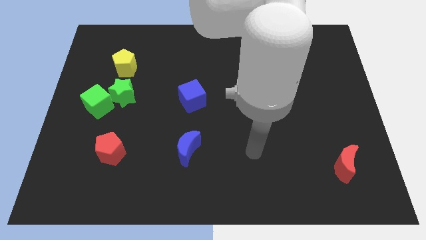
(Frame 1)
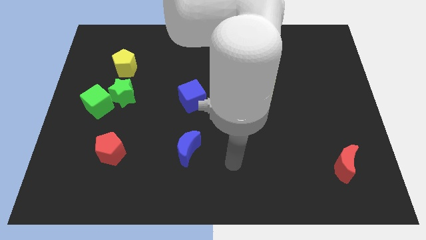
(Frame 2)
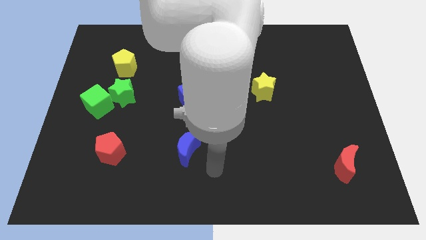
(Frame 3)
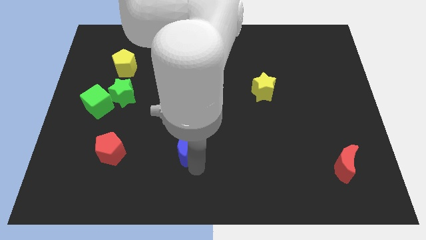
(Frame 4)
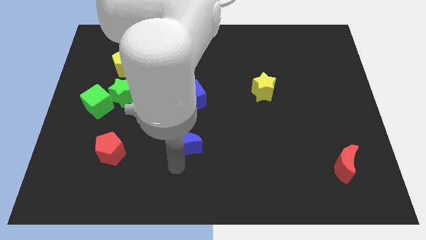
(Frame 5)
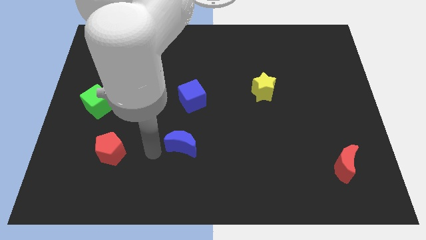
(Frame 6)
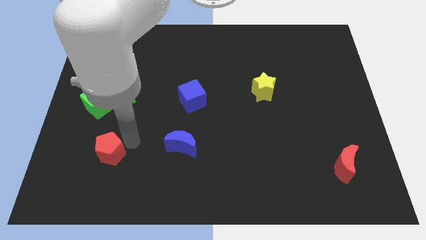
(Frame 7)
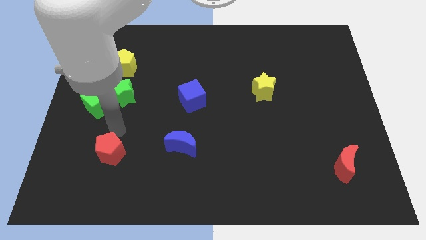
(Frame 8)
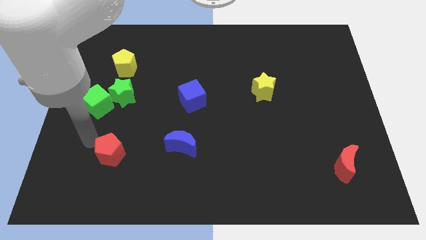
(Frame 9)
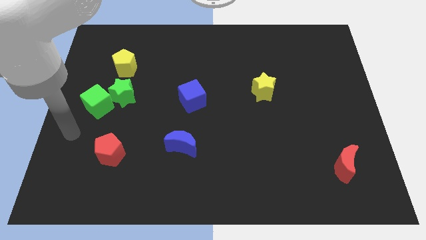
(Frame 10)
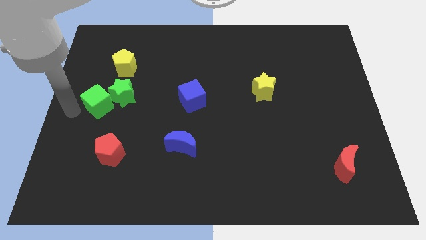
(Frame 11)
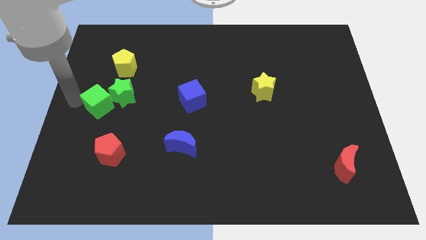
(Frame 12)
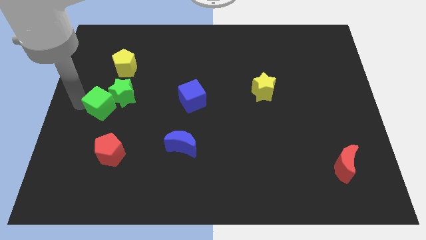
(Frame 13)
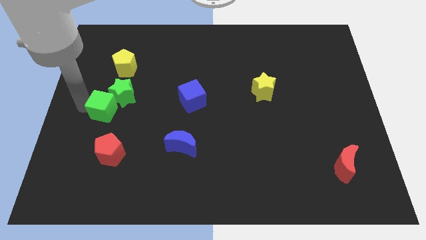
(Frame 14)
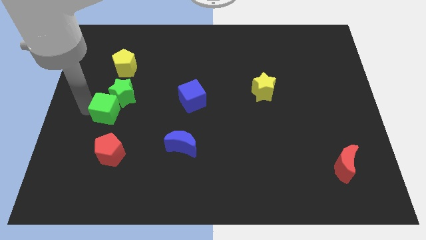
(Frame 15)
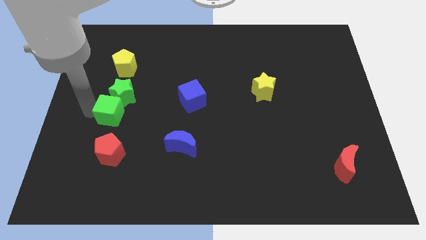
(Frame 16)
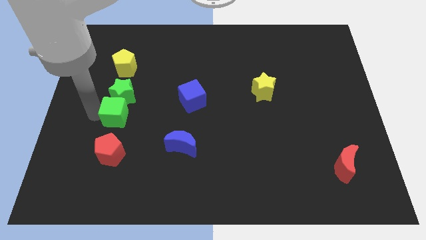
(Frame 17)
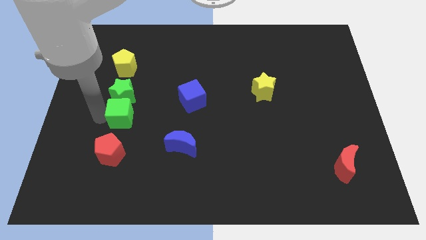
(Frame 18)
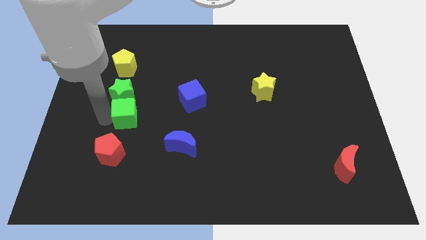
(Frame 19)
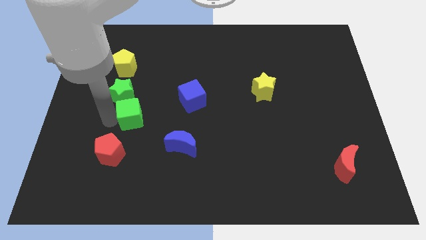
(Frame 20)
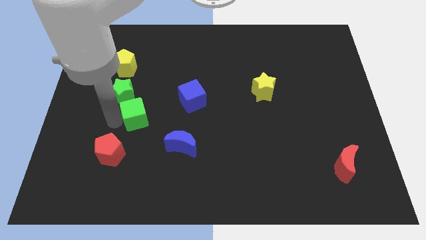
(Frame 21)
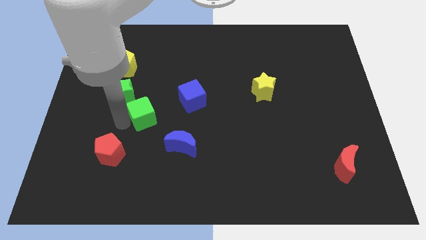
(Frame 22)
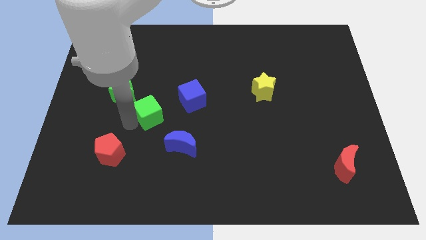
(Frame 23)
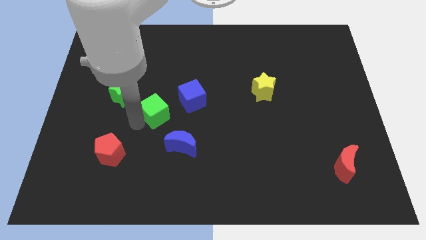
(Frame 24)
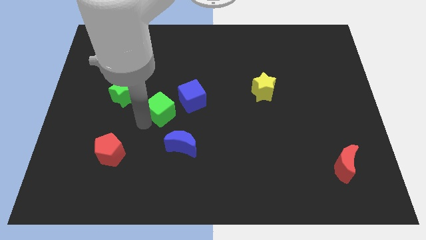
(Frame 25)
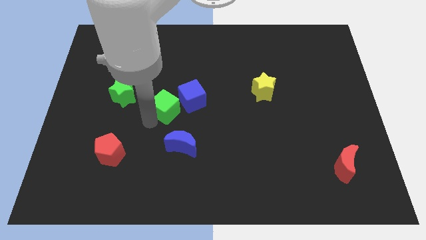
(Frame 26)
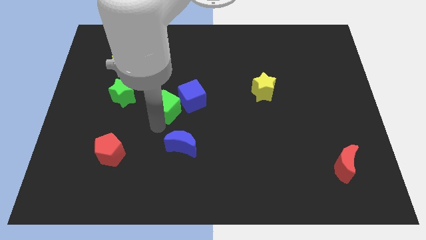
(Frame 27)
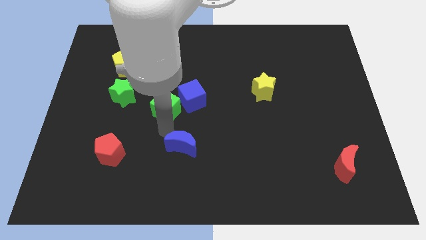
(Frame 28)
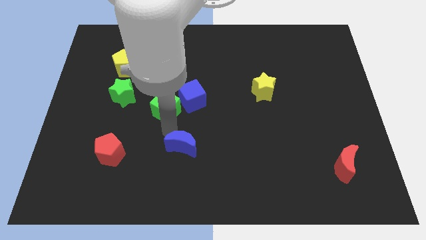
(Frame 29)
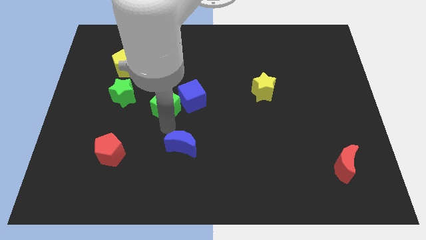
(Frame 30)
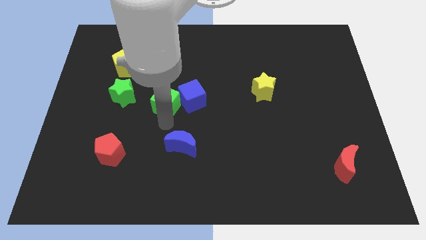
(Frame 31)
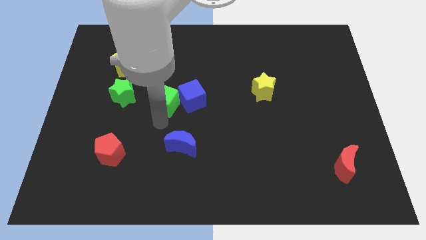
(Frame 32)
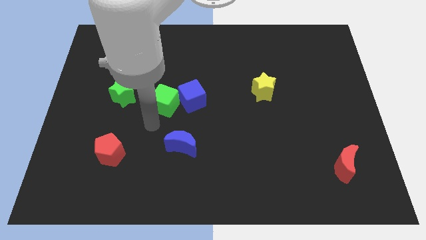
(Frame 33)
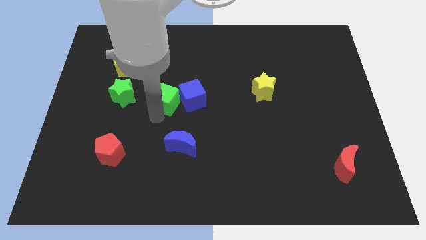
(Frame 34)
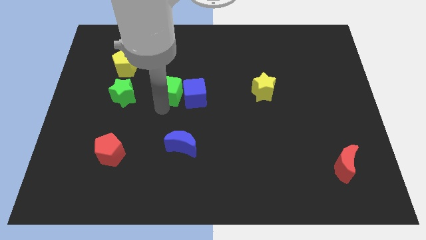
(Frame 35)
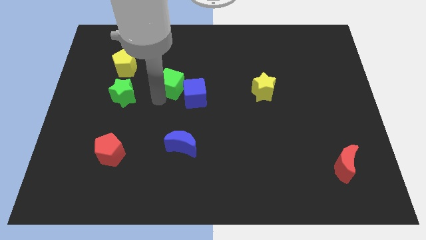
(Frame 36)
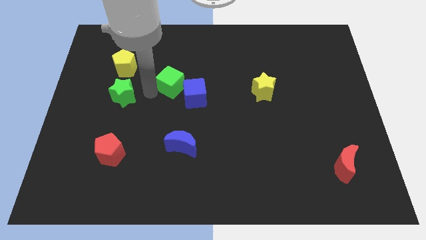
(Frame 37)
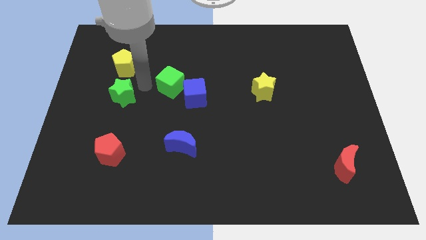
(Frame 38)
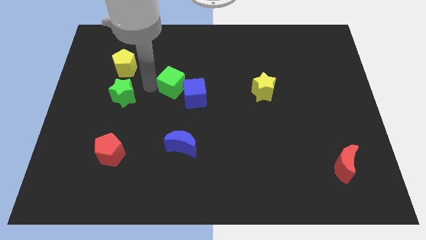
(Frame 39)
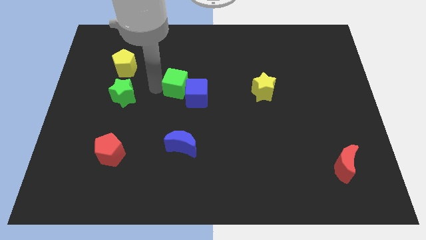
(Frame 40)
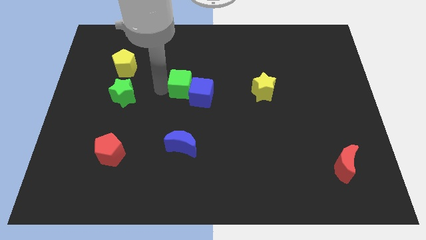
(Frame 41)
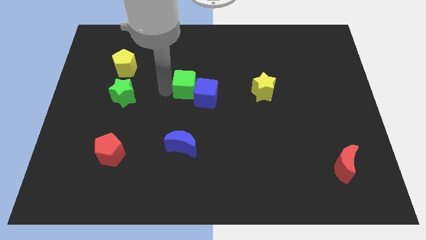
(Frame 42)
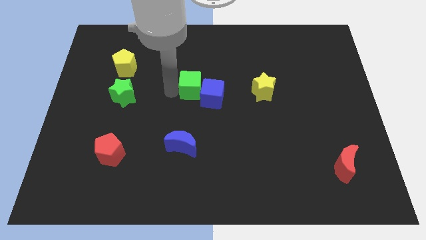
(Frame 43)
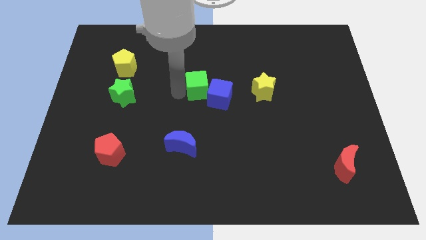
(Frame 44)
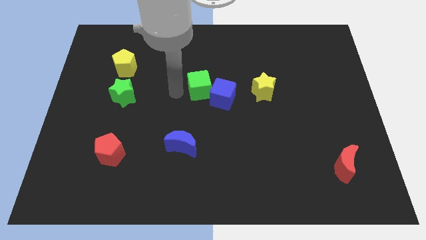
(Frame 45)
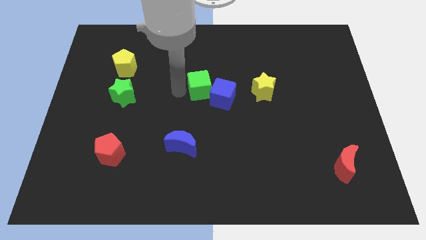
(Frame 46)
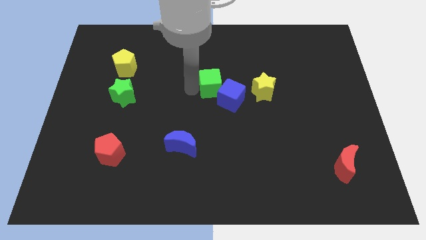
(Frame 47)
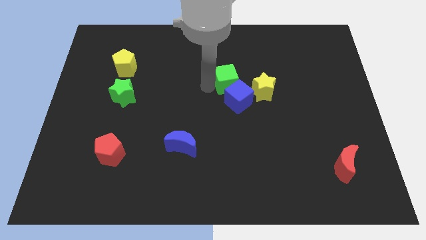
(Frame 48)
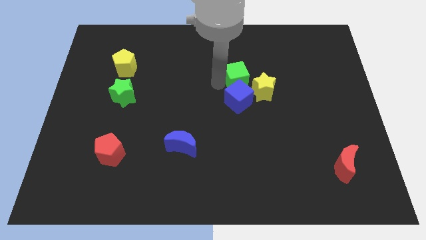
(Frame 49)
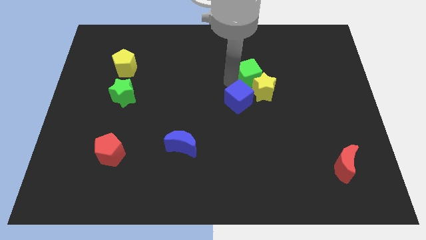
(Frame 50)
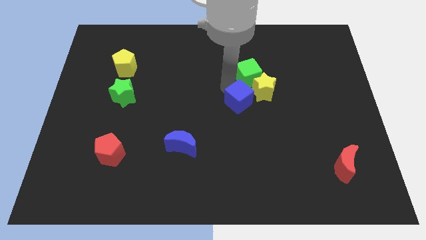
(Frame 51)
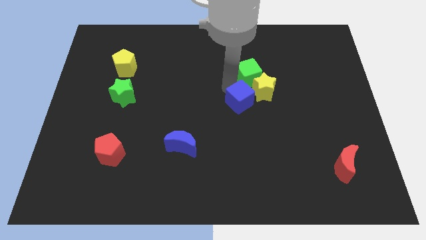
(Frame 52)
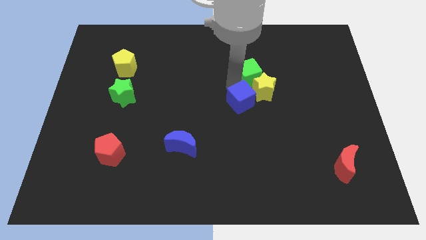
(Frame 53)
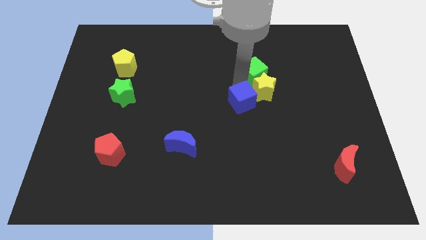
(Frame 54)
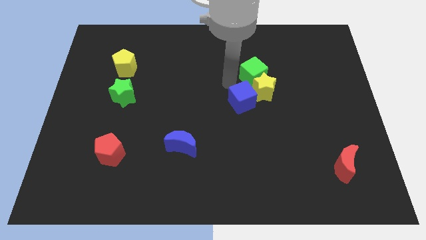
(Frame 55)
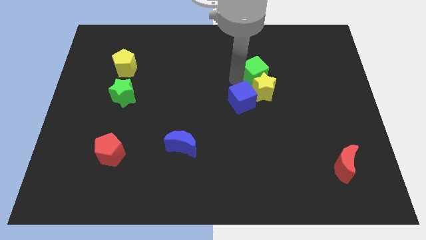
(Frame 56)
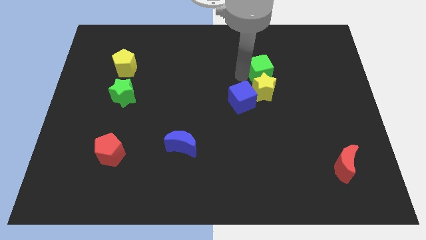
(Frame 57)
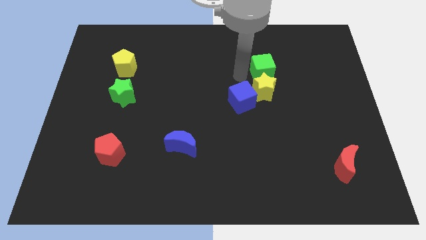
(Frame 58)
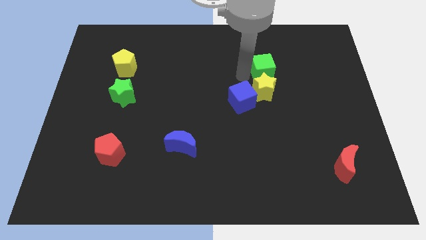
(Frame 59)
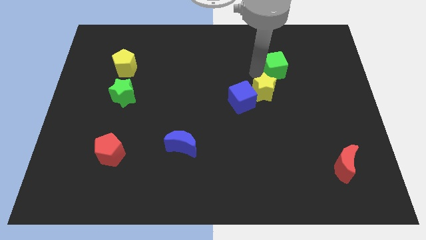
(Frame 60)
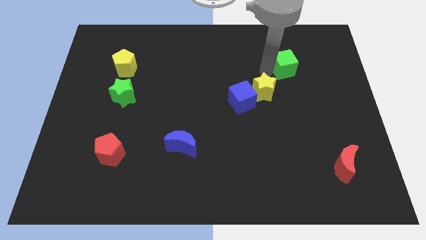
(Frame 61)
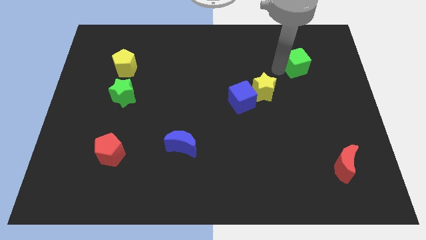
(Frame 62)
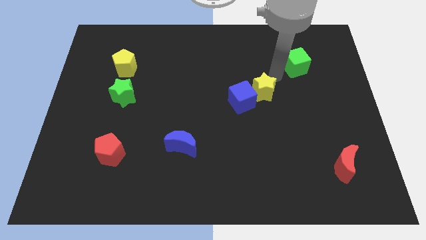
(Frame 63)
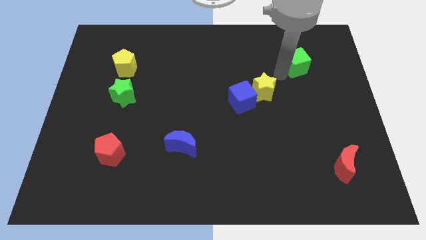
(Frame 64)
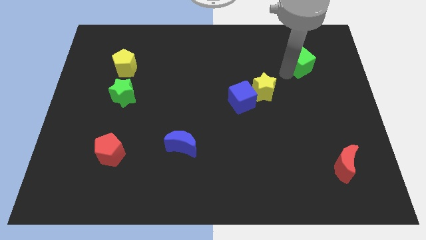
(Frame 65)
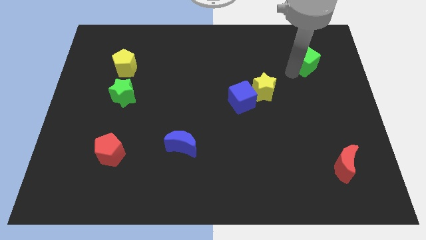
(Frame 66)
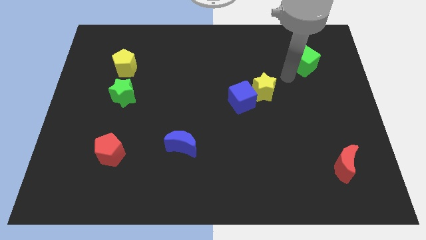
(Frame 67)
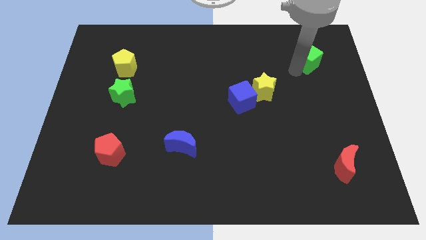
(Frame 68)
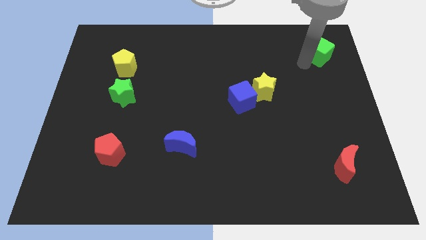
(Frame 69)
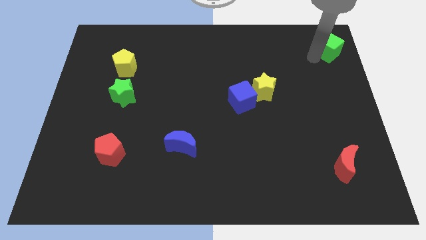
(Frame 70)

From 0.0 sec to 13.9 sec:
push the green cube to the top right corner
